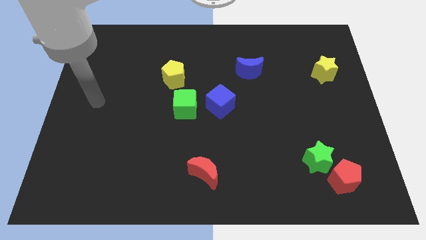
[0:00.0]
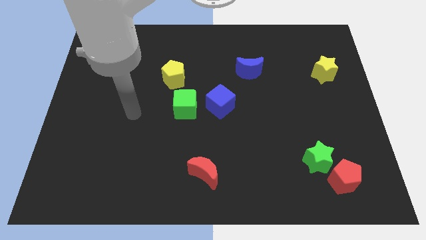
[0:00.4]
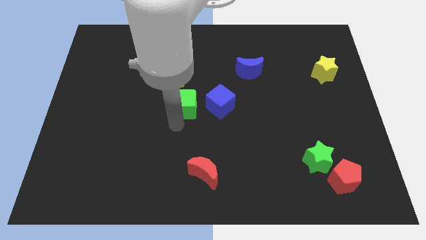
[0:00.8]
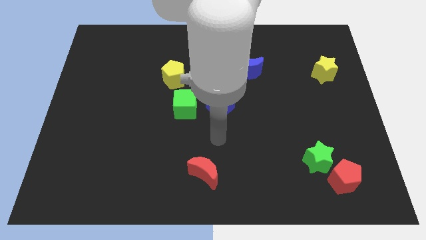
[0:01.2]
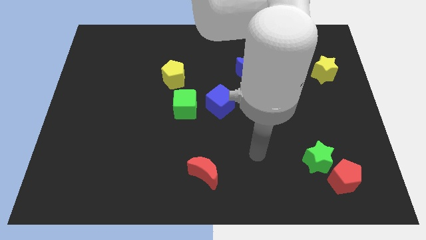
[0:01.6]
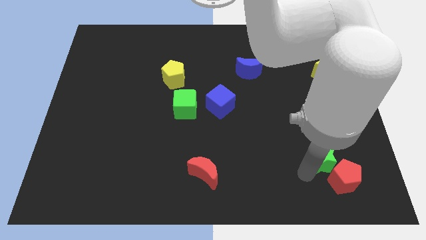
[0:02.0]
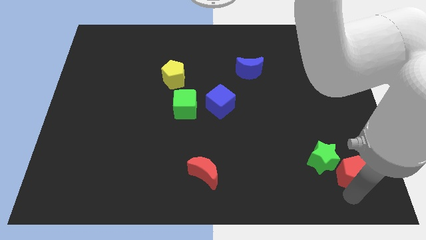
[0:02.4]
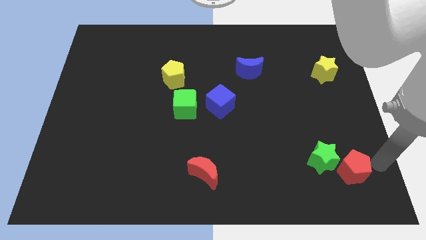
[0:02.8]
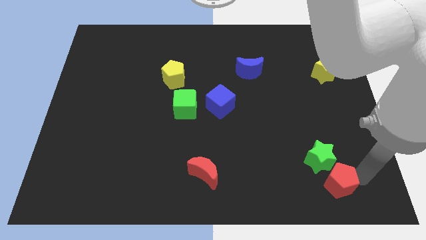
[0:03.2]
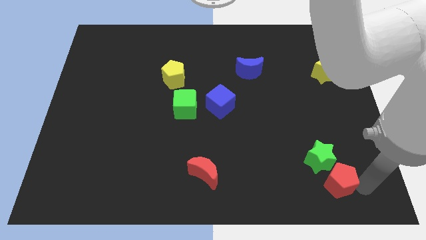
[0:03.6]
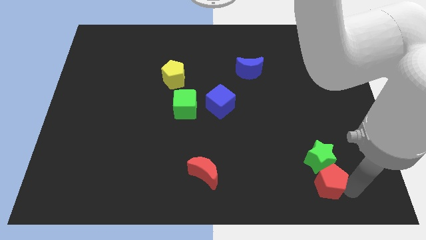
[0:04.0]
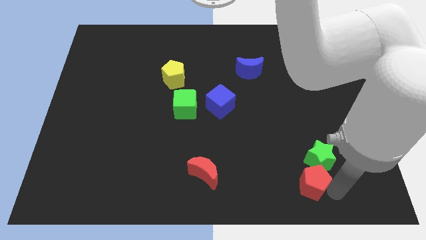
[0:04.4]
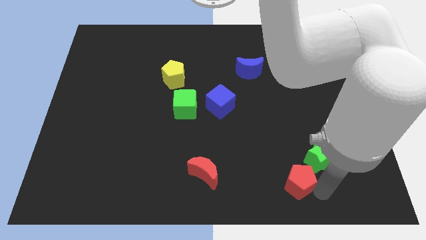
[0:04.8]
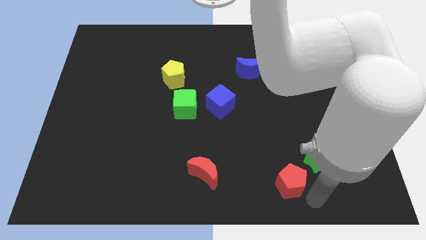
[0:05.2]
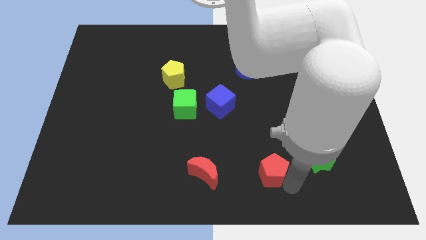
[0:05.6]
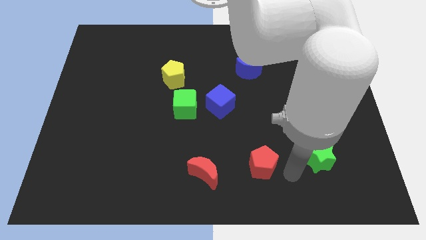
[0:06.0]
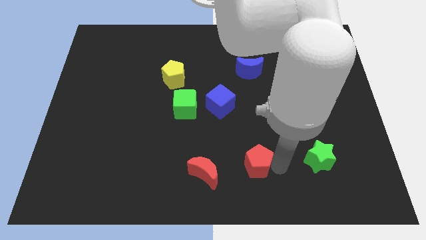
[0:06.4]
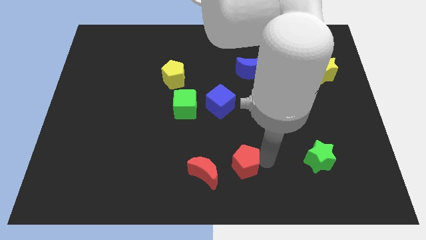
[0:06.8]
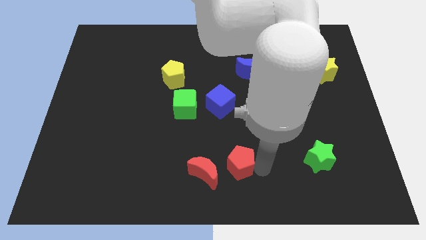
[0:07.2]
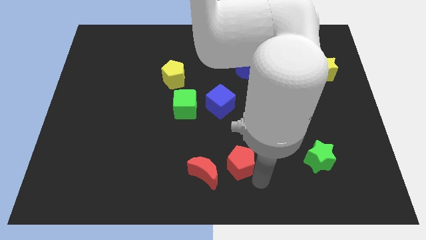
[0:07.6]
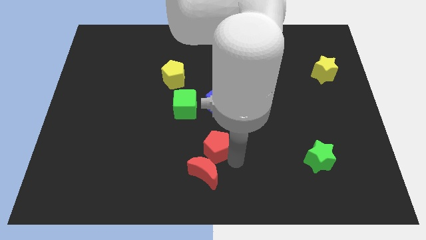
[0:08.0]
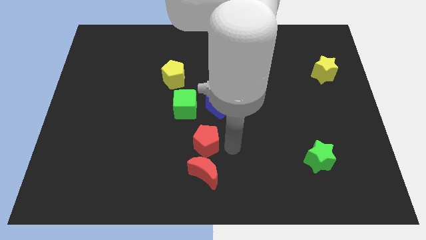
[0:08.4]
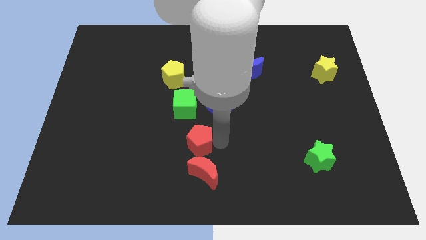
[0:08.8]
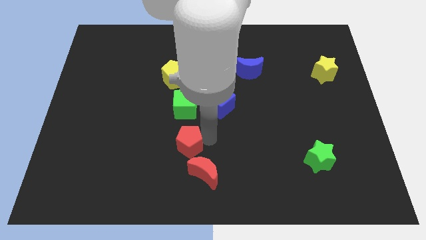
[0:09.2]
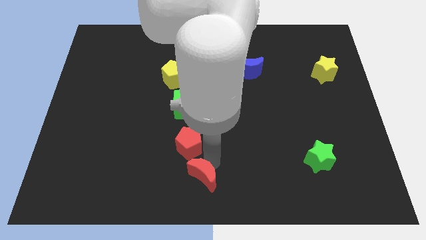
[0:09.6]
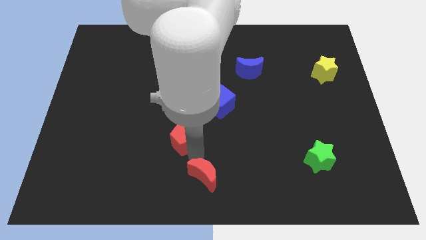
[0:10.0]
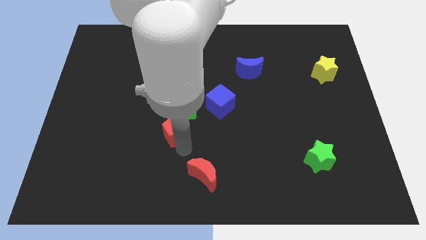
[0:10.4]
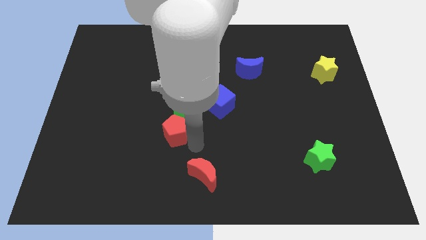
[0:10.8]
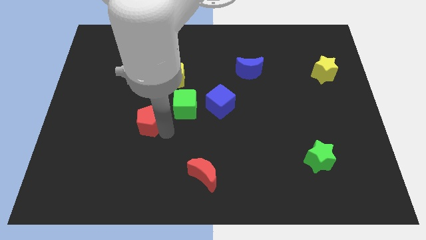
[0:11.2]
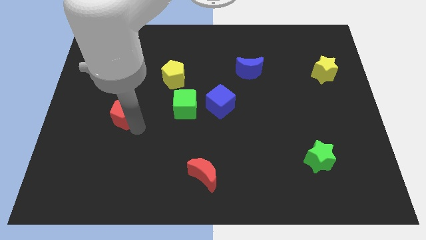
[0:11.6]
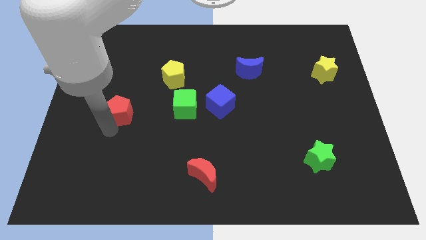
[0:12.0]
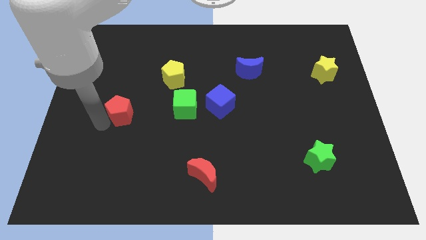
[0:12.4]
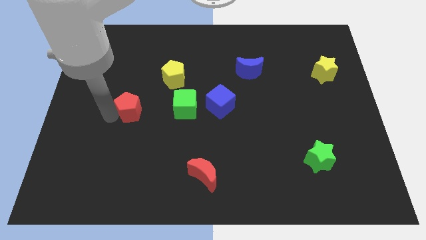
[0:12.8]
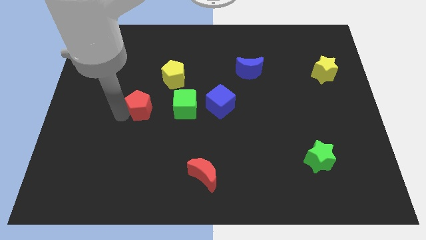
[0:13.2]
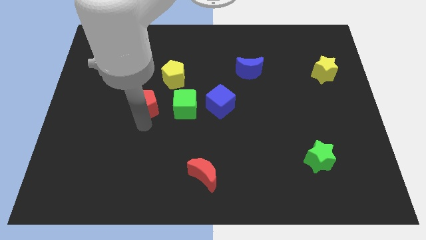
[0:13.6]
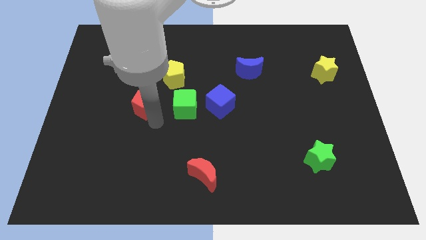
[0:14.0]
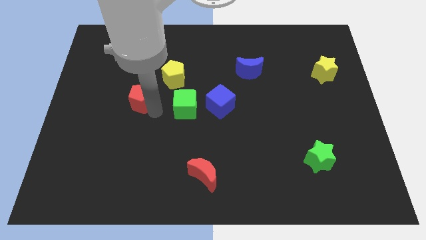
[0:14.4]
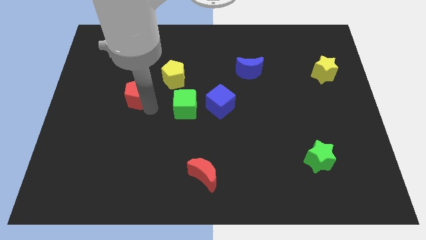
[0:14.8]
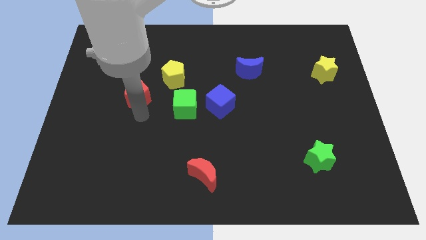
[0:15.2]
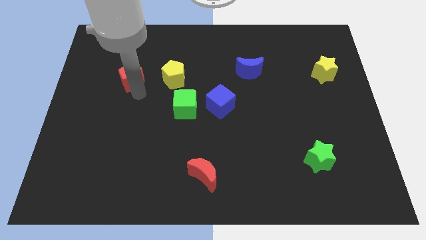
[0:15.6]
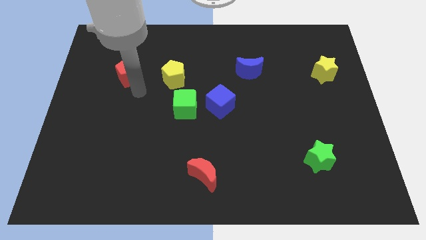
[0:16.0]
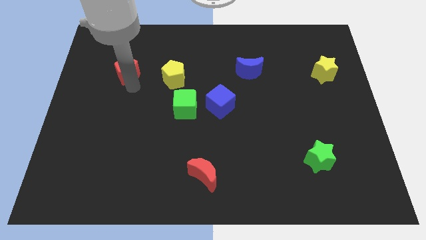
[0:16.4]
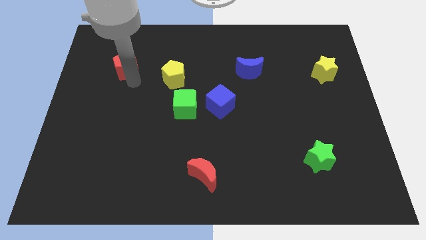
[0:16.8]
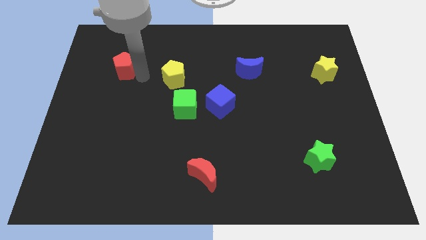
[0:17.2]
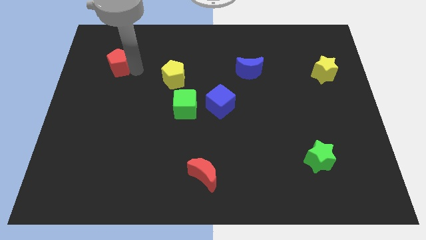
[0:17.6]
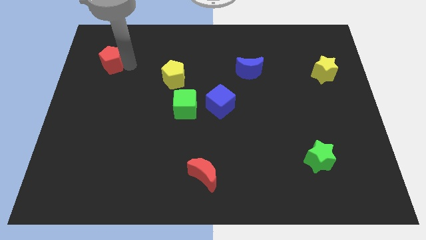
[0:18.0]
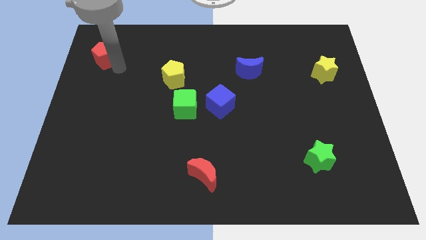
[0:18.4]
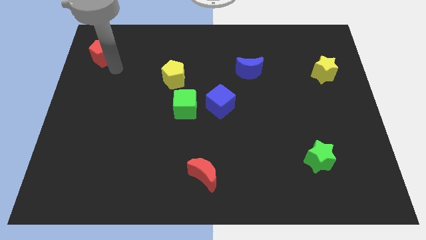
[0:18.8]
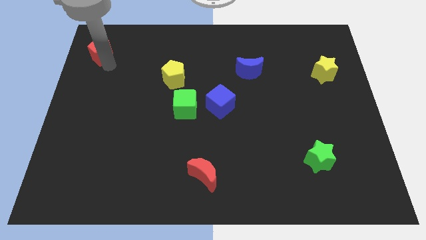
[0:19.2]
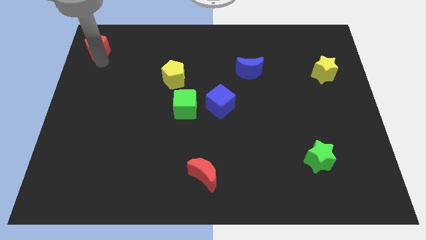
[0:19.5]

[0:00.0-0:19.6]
move the red pentagon to the top left
